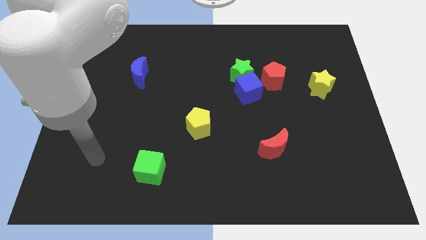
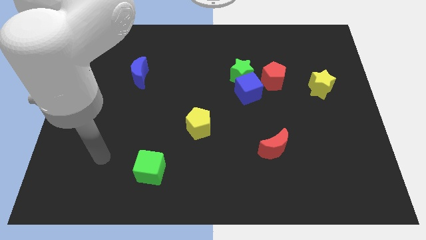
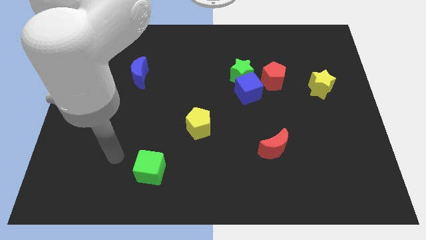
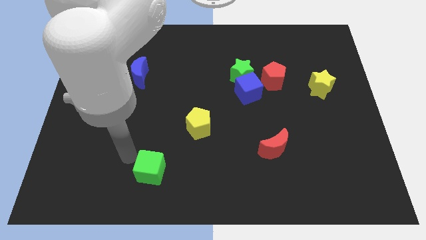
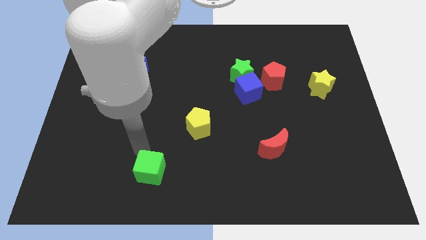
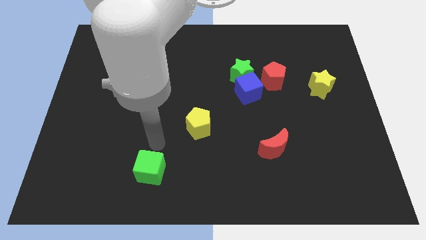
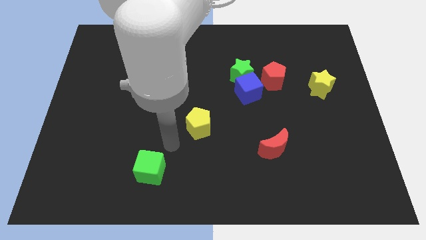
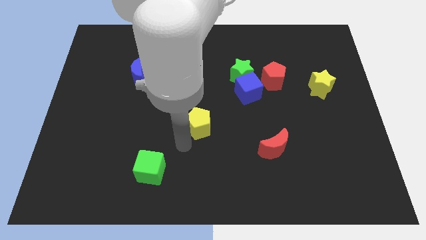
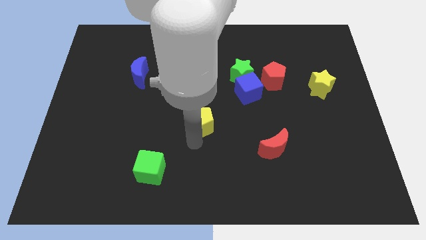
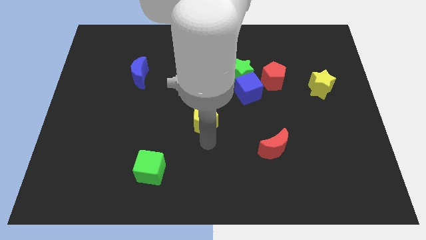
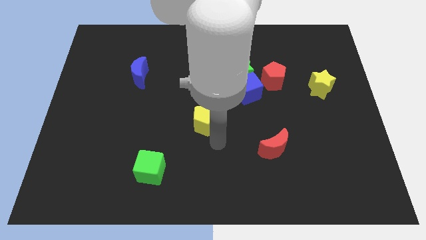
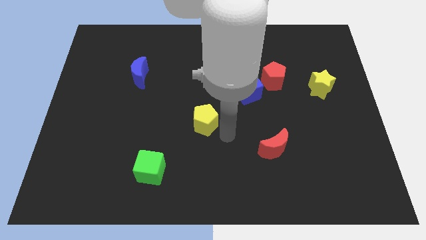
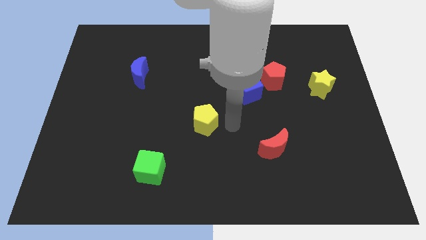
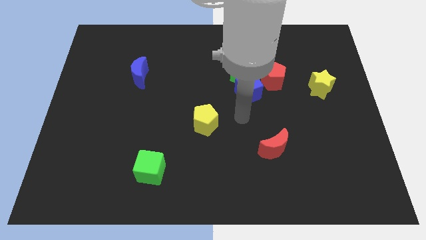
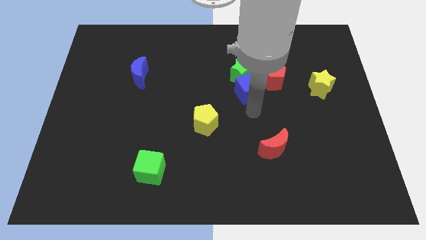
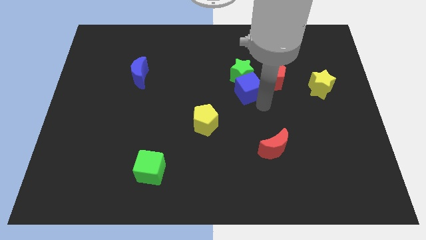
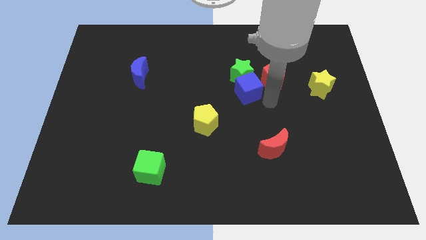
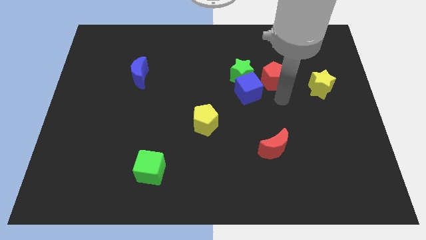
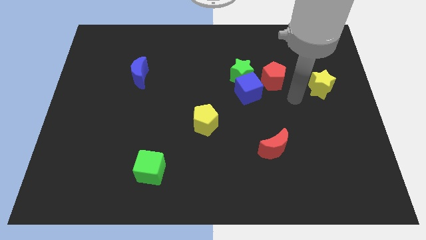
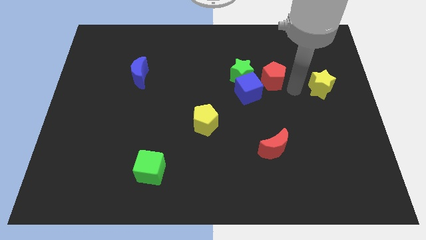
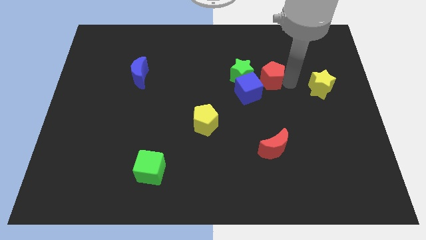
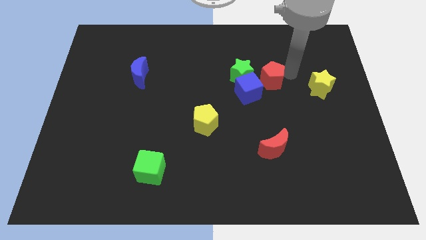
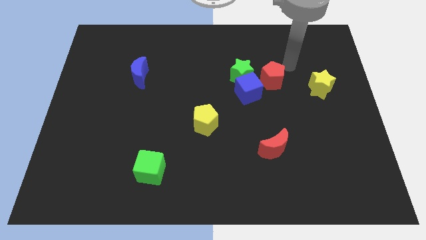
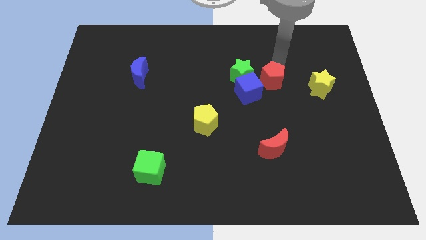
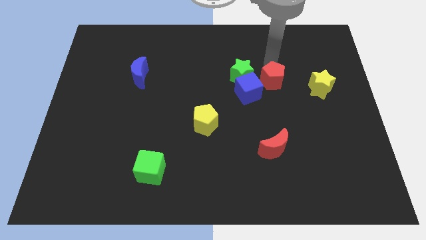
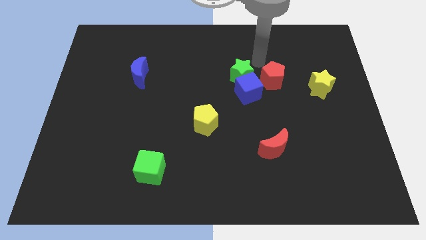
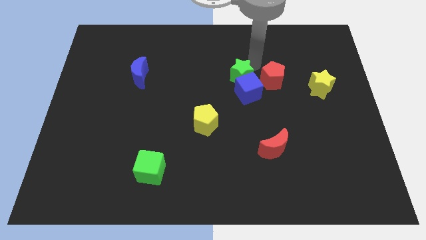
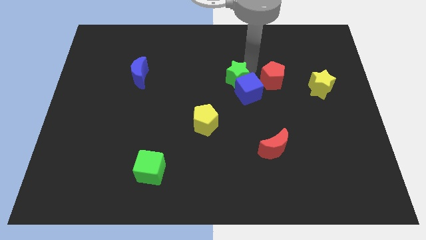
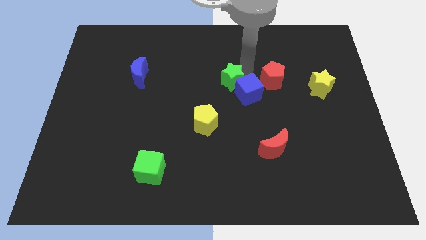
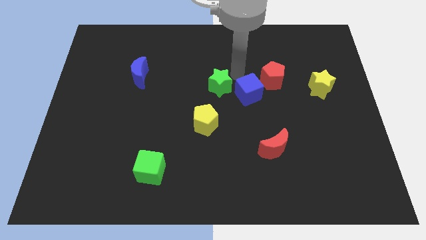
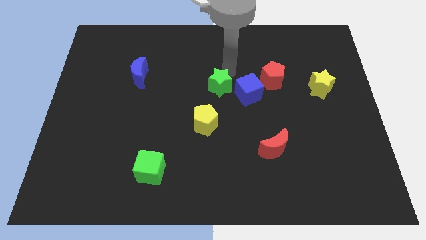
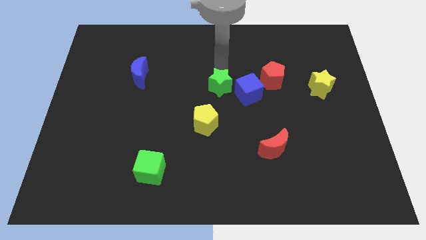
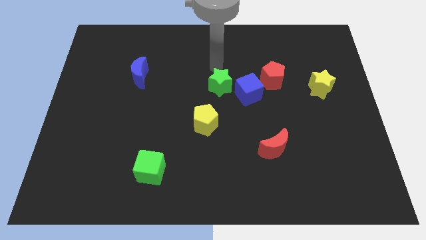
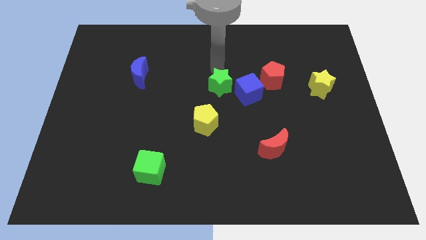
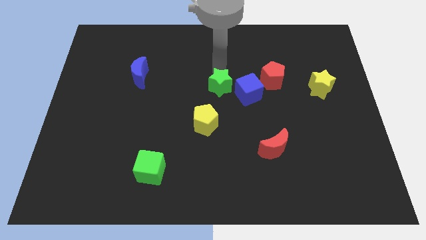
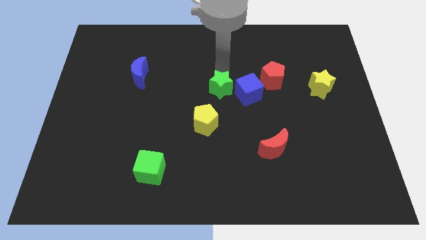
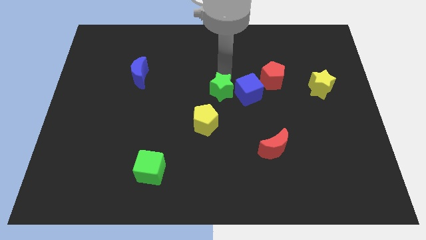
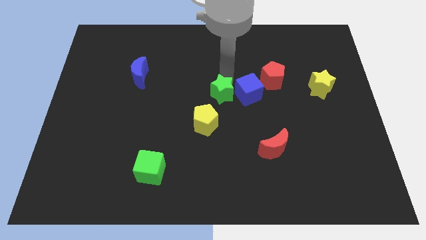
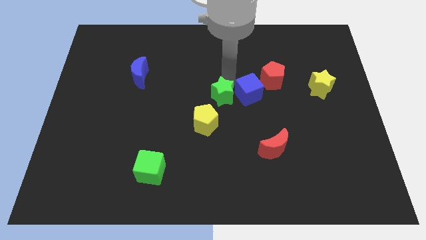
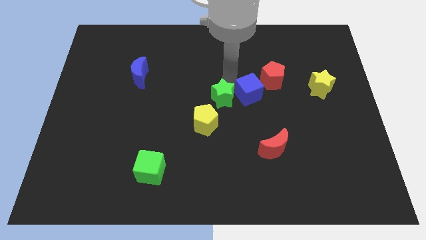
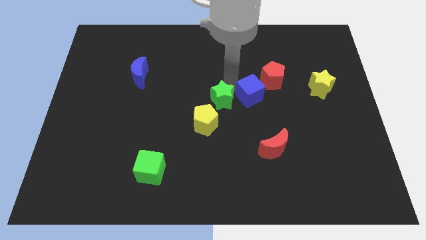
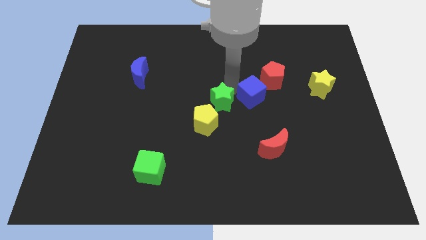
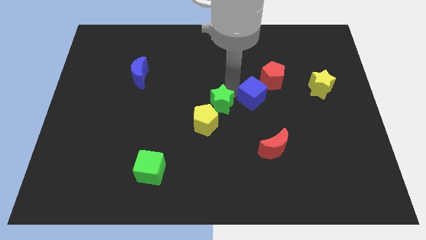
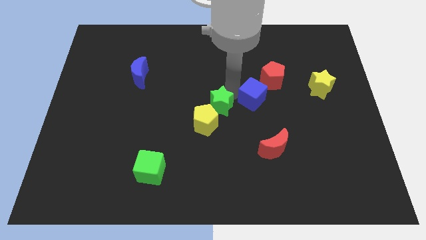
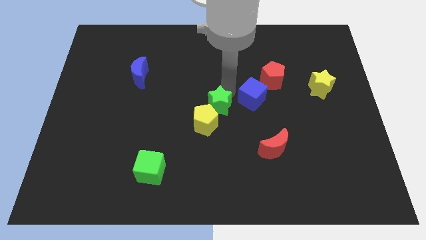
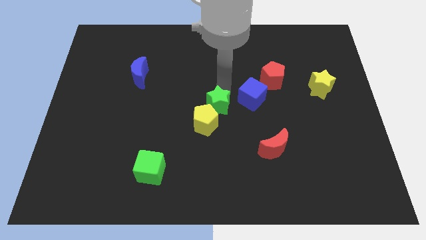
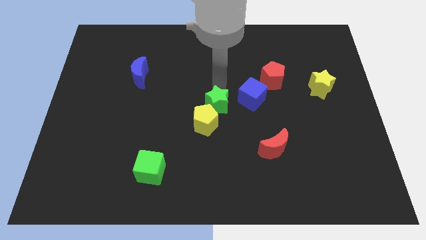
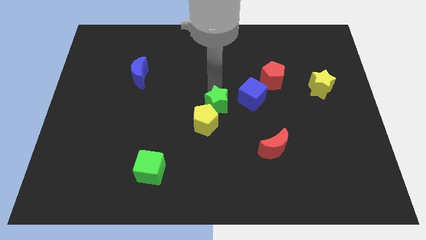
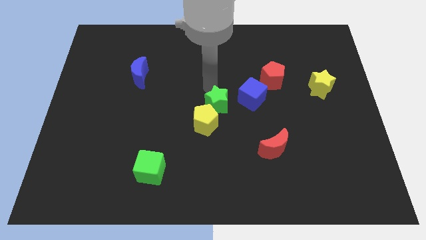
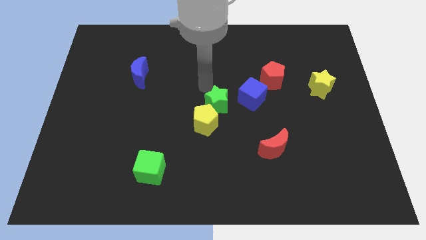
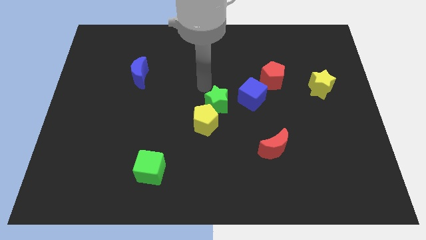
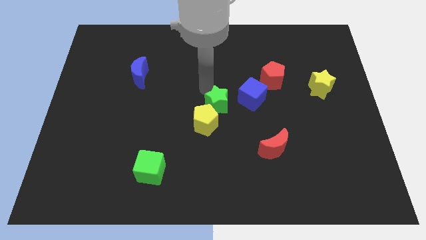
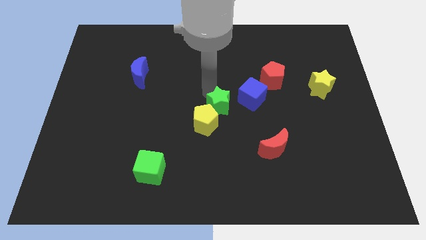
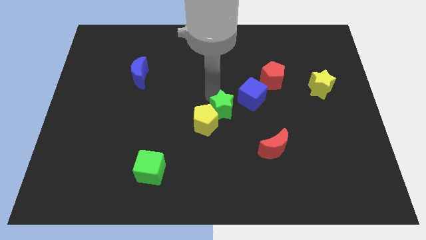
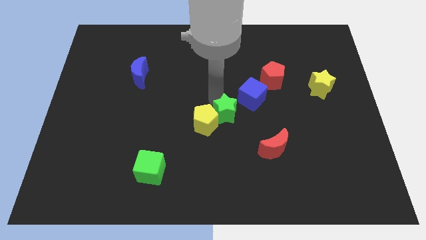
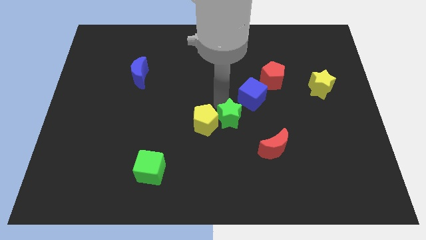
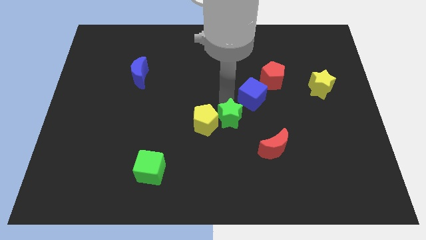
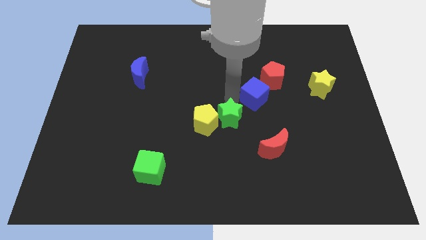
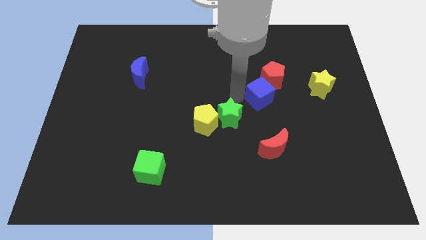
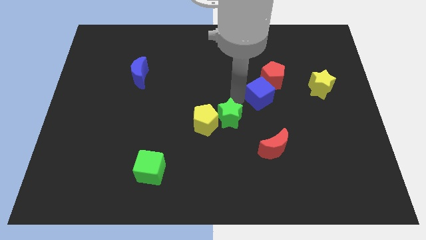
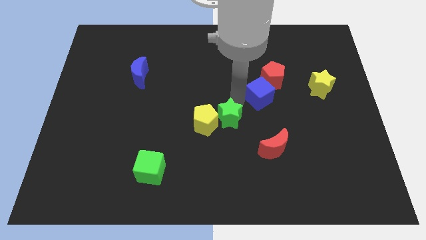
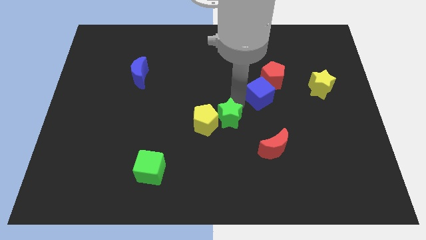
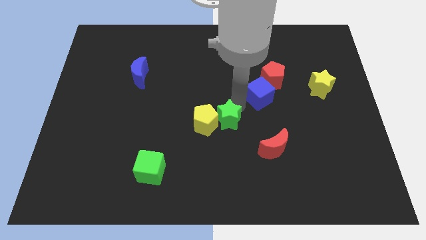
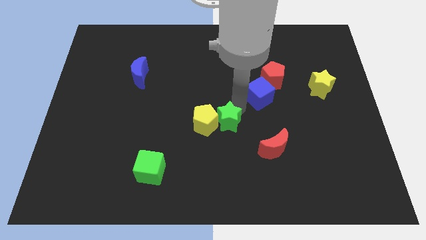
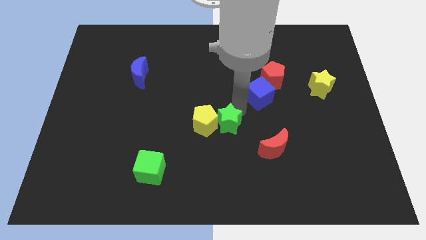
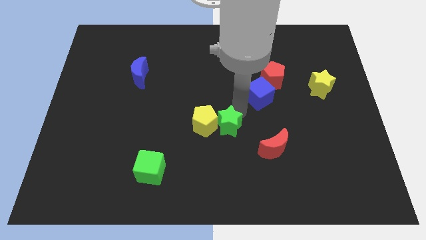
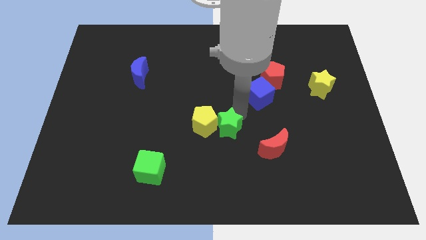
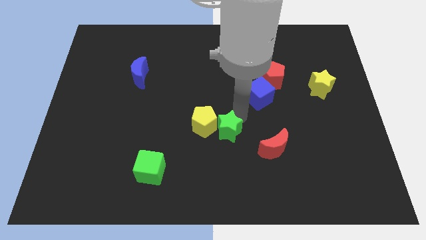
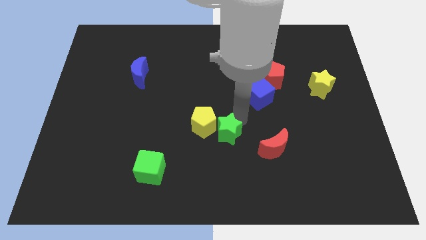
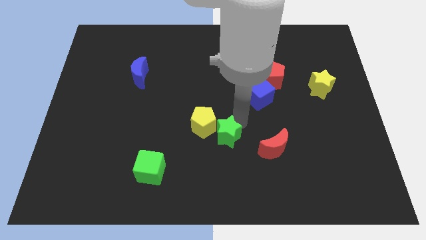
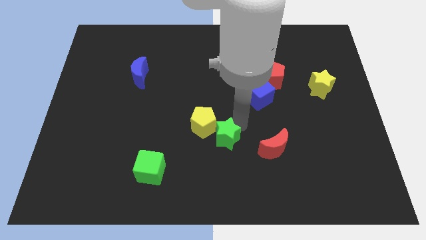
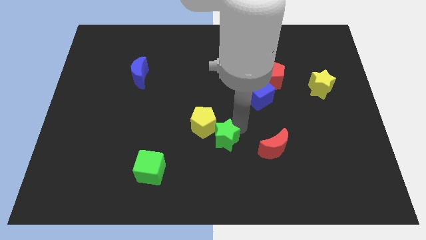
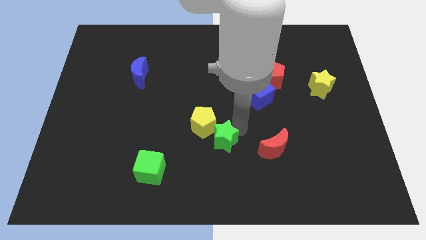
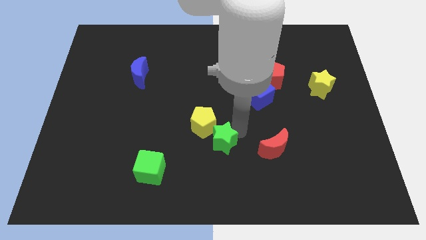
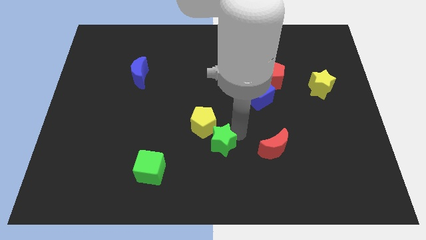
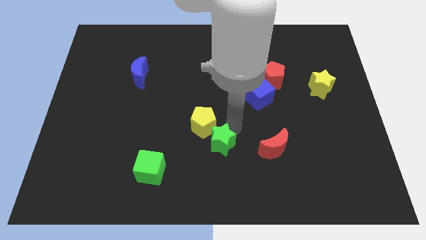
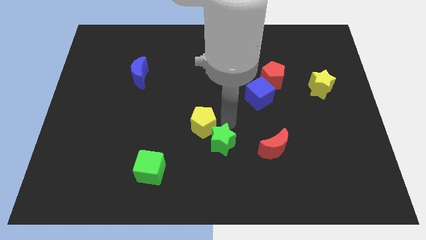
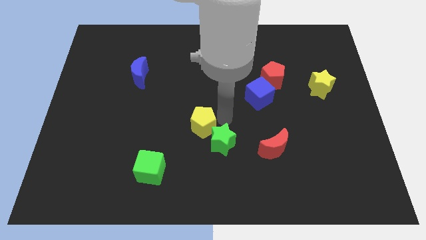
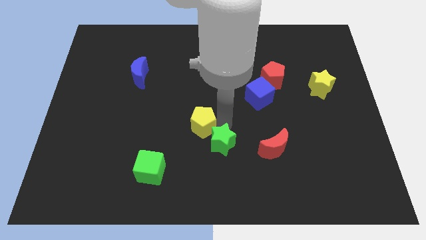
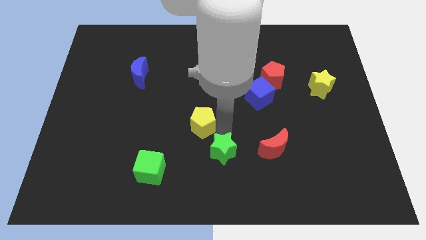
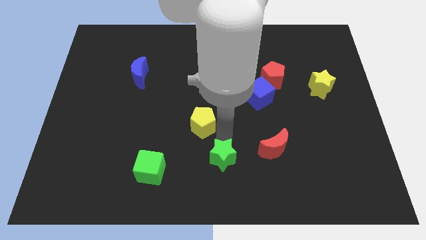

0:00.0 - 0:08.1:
push the green star to the bottom side
